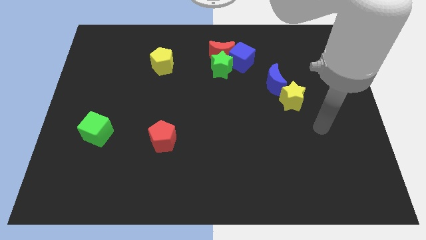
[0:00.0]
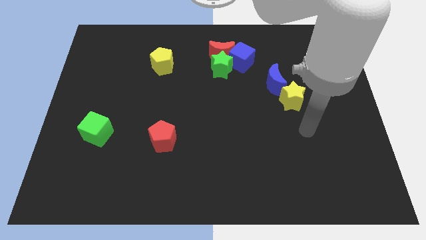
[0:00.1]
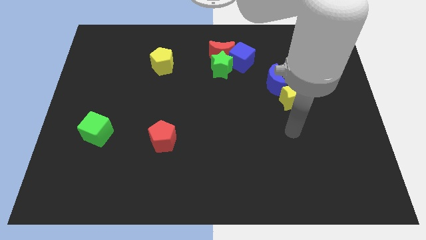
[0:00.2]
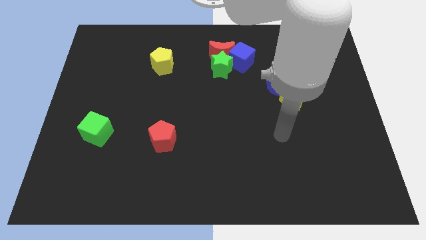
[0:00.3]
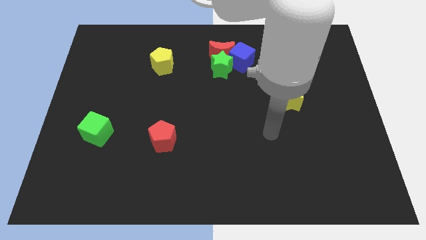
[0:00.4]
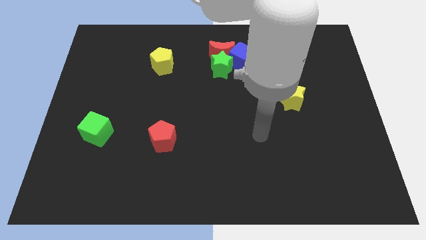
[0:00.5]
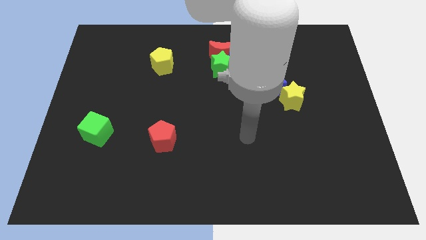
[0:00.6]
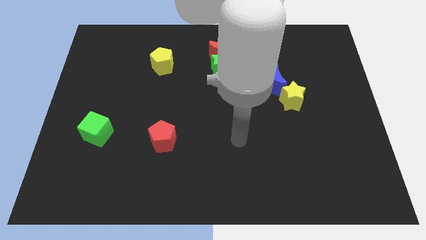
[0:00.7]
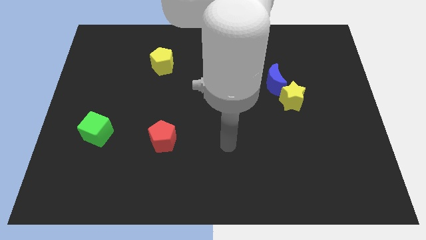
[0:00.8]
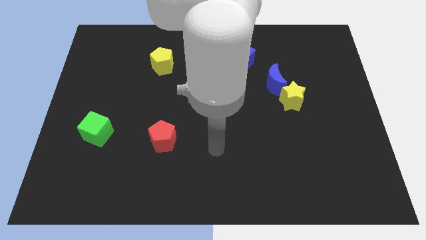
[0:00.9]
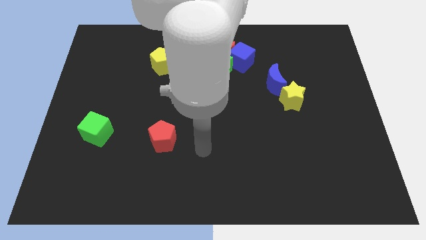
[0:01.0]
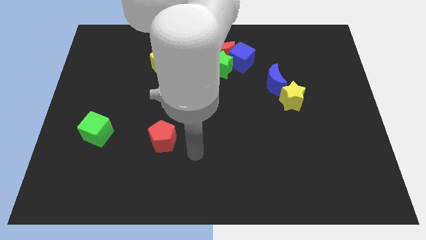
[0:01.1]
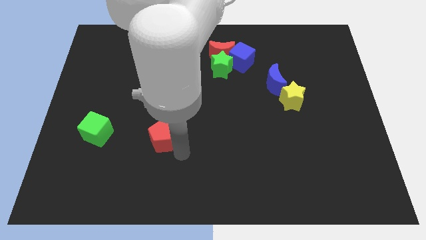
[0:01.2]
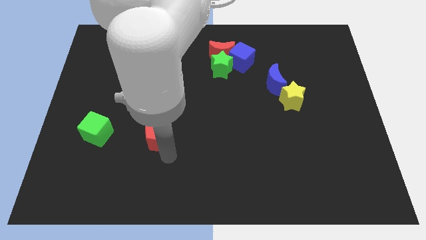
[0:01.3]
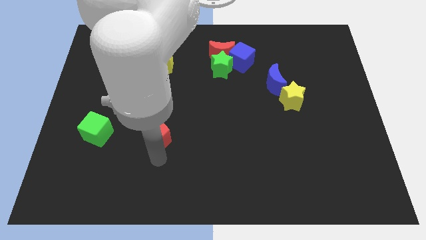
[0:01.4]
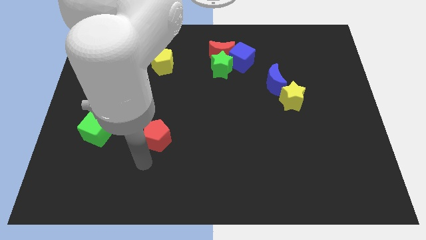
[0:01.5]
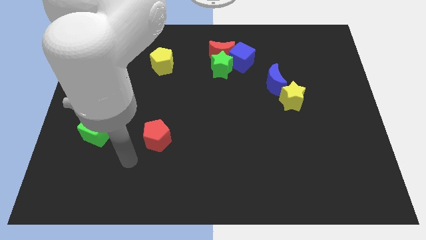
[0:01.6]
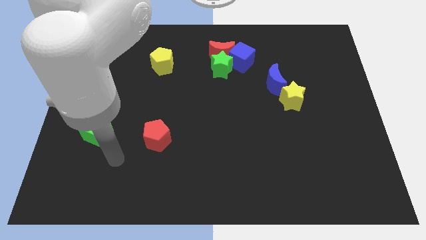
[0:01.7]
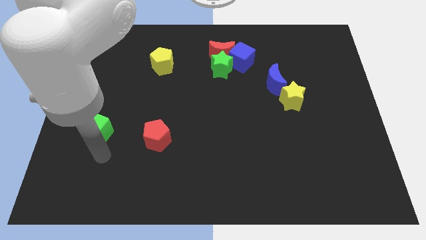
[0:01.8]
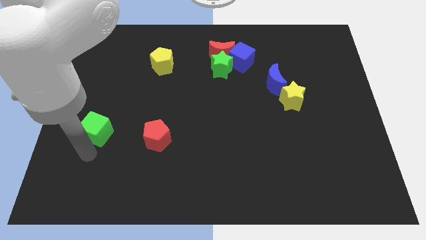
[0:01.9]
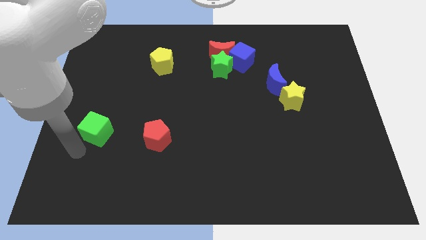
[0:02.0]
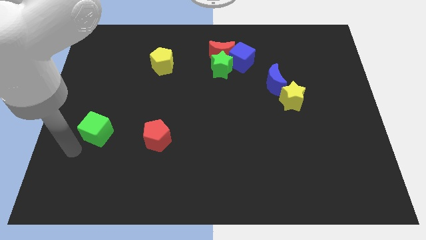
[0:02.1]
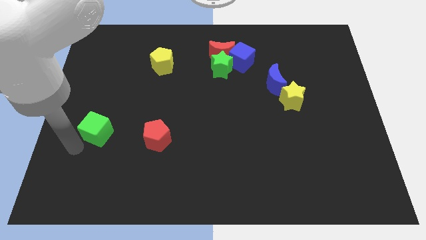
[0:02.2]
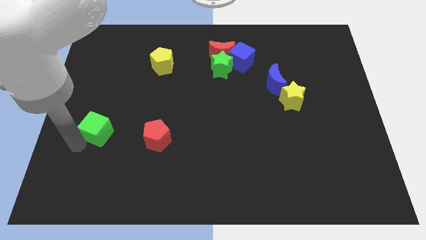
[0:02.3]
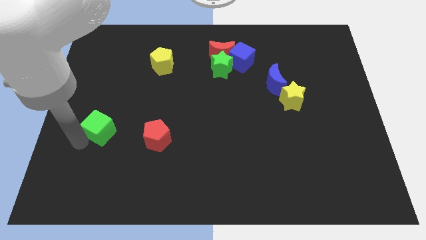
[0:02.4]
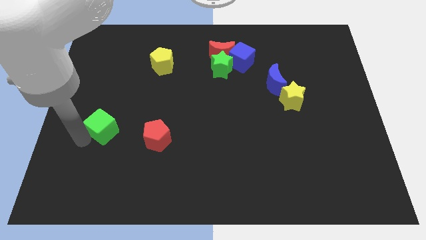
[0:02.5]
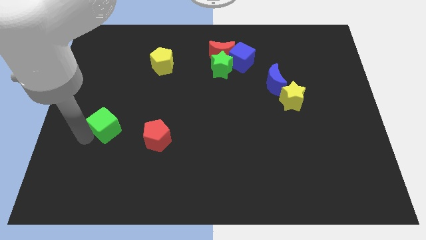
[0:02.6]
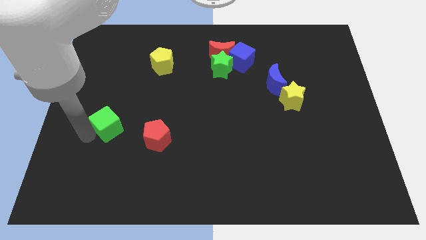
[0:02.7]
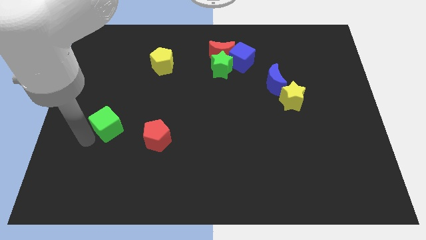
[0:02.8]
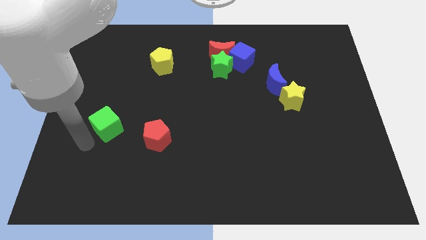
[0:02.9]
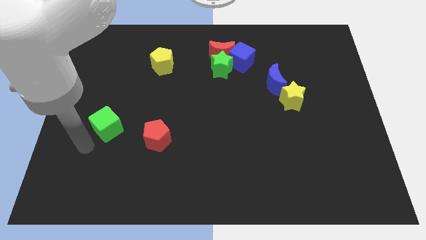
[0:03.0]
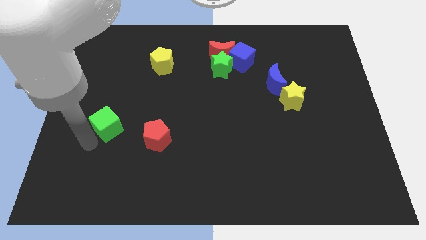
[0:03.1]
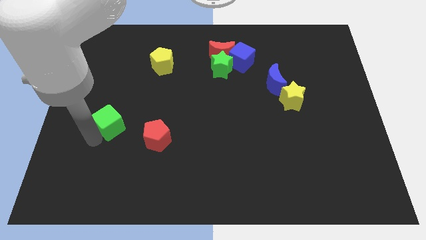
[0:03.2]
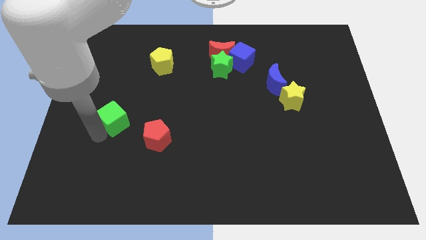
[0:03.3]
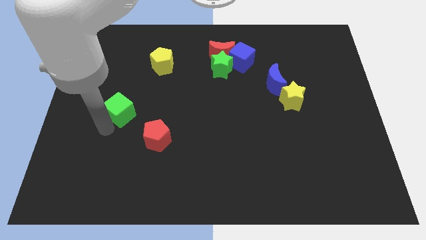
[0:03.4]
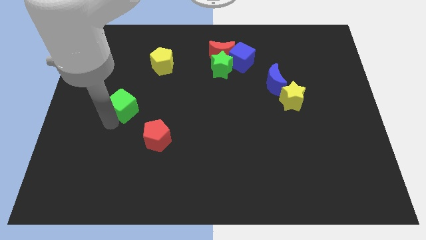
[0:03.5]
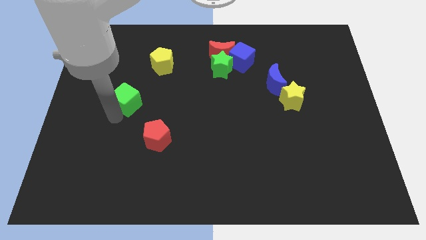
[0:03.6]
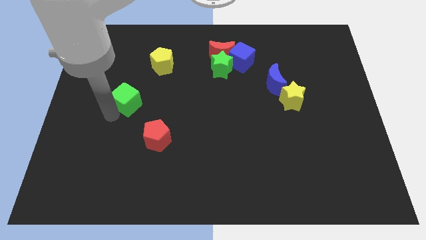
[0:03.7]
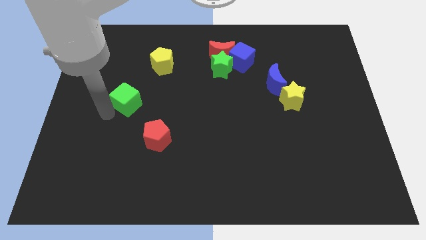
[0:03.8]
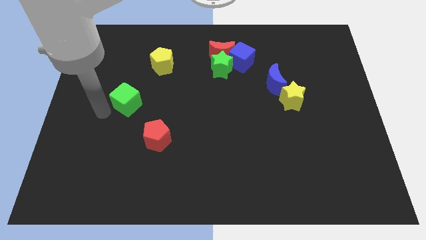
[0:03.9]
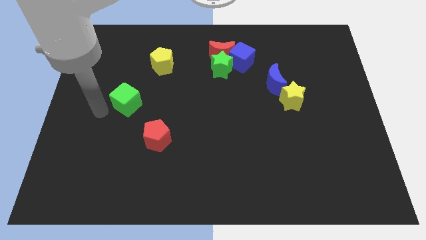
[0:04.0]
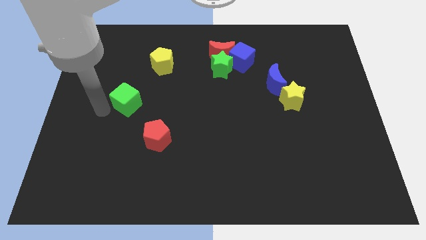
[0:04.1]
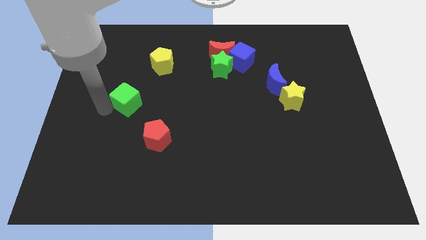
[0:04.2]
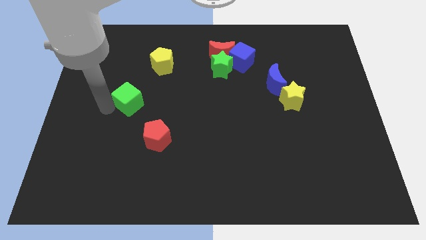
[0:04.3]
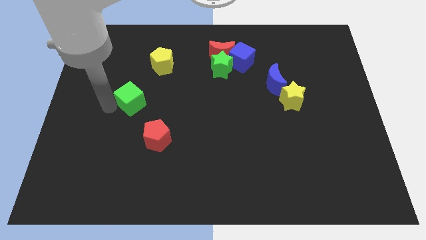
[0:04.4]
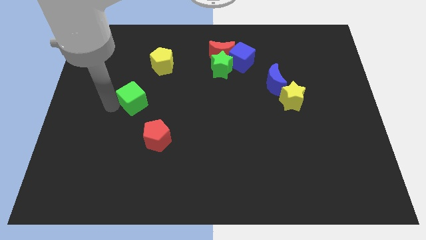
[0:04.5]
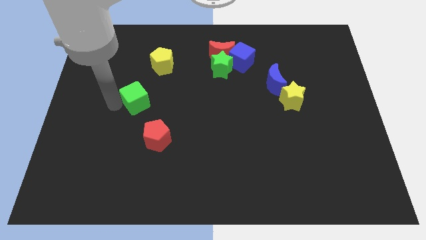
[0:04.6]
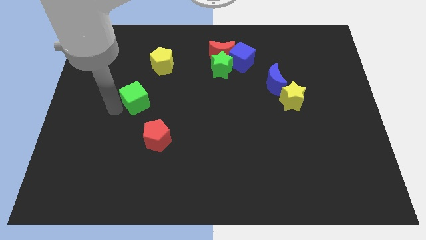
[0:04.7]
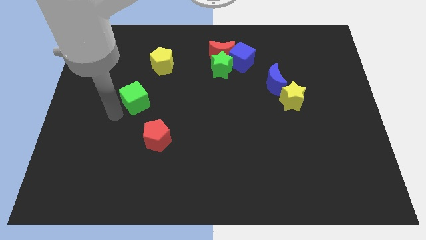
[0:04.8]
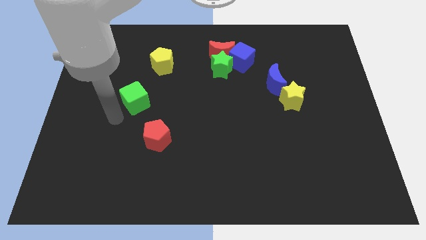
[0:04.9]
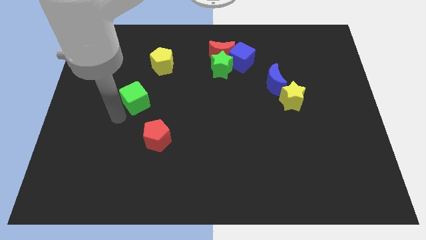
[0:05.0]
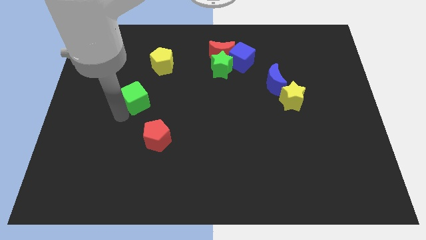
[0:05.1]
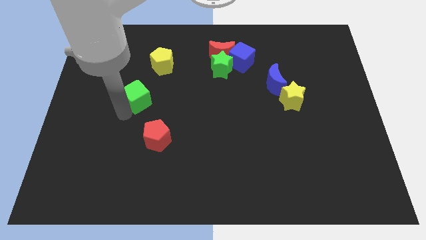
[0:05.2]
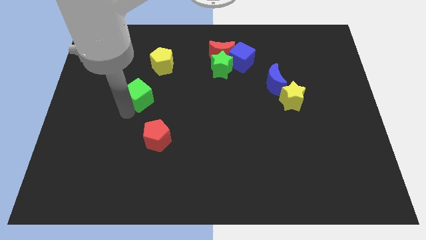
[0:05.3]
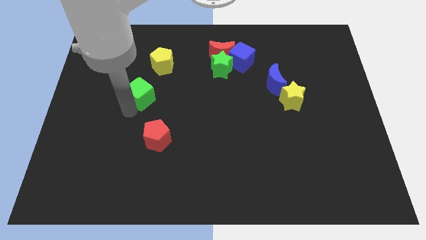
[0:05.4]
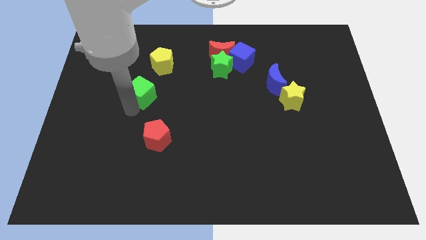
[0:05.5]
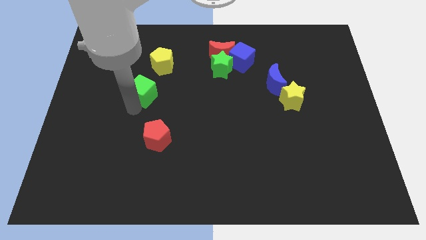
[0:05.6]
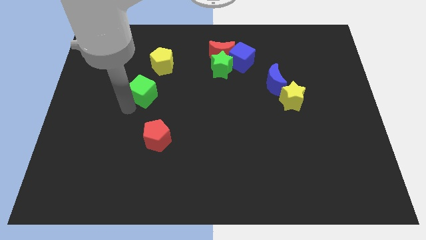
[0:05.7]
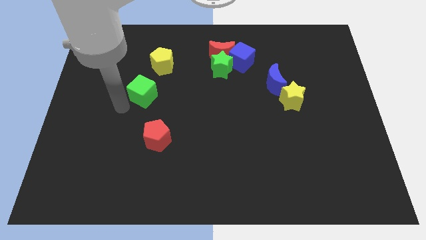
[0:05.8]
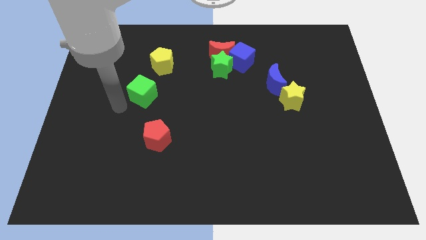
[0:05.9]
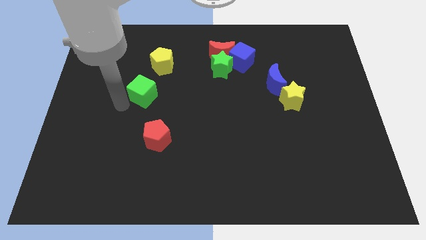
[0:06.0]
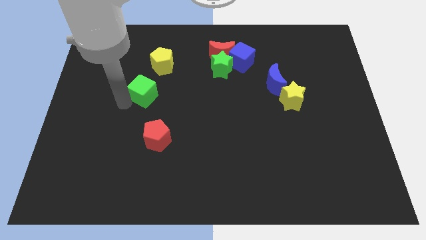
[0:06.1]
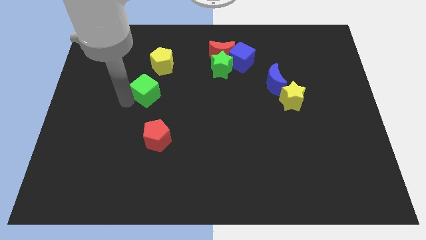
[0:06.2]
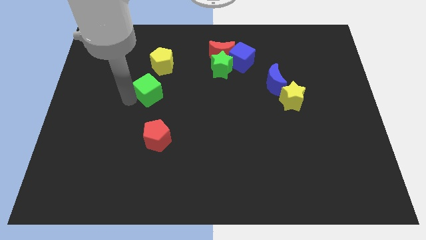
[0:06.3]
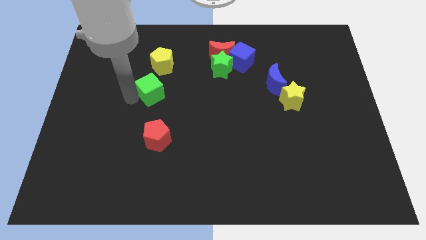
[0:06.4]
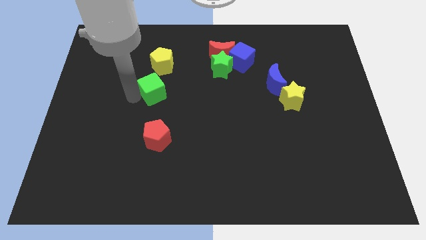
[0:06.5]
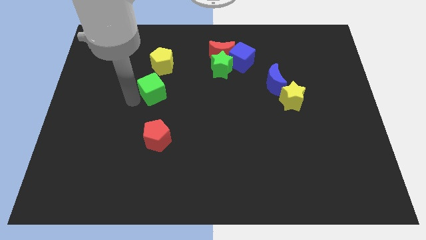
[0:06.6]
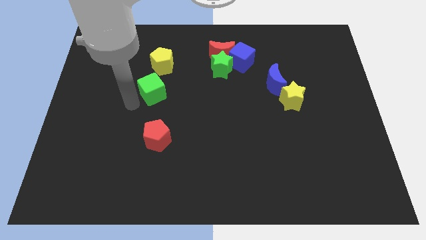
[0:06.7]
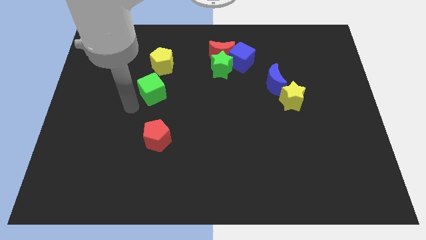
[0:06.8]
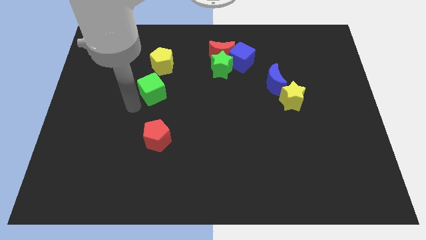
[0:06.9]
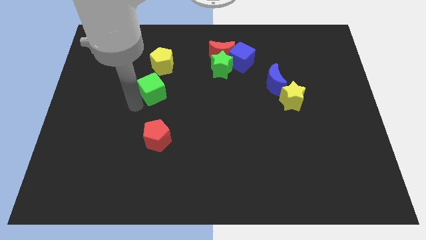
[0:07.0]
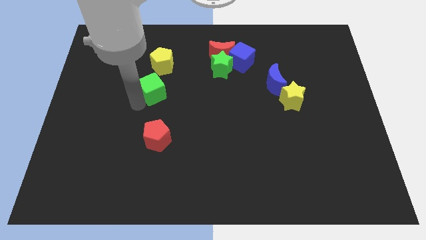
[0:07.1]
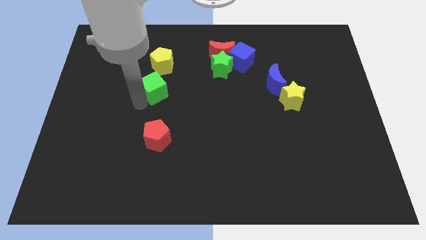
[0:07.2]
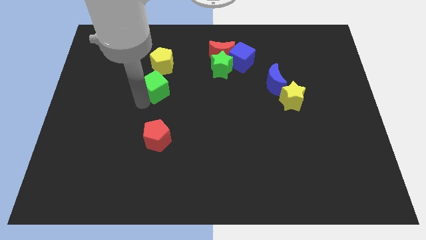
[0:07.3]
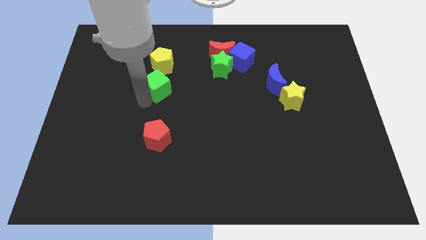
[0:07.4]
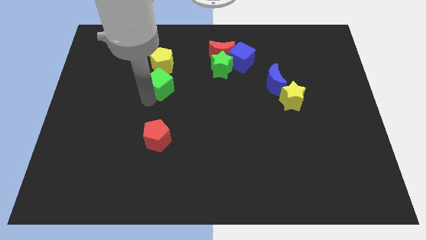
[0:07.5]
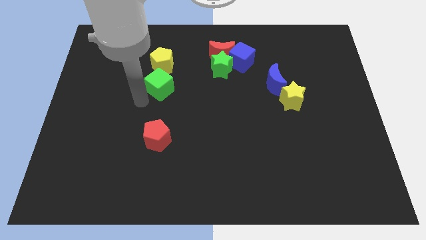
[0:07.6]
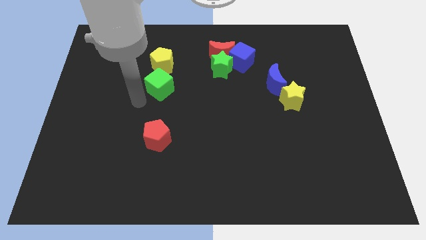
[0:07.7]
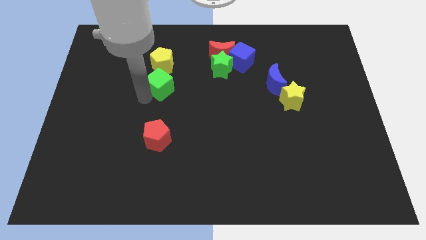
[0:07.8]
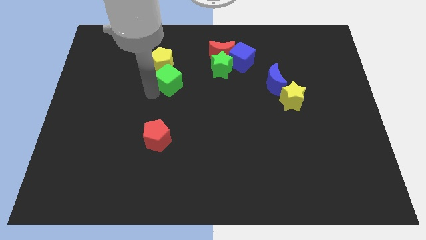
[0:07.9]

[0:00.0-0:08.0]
move the green cube upwards and to the right
